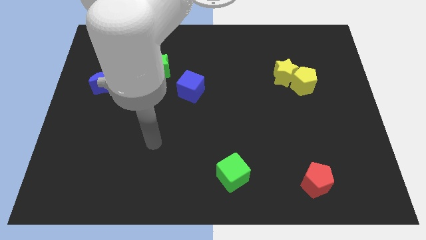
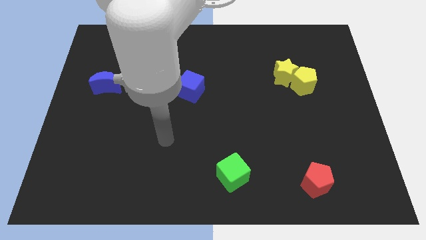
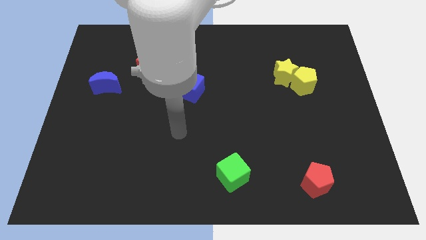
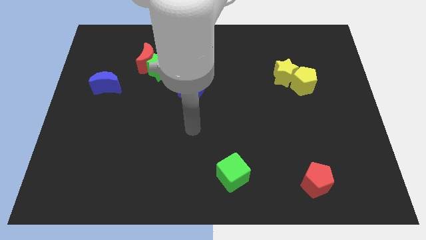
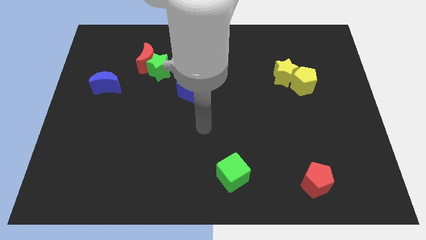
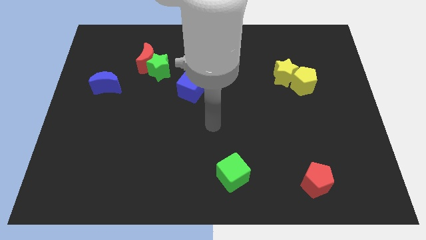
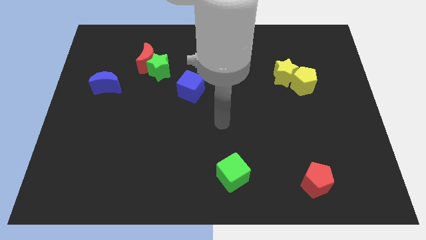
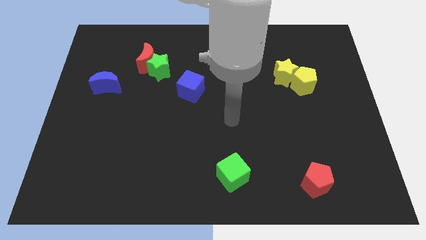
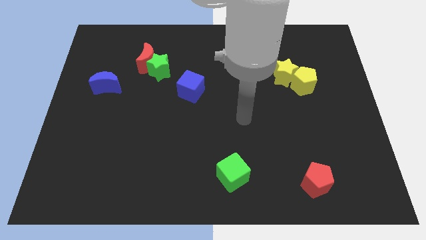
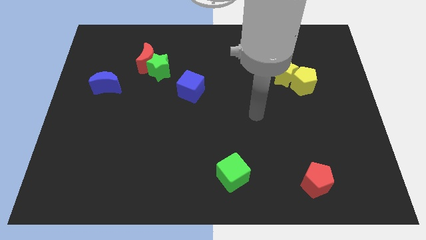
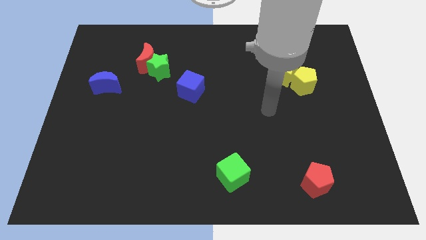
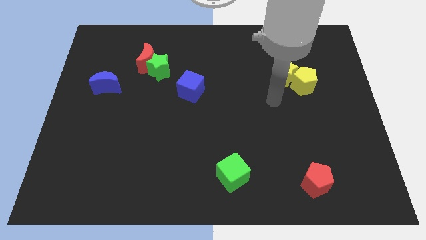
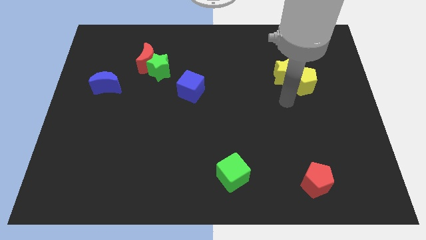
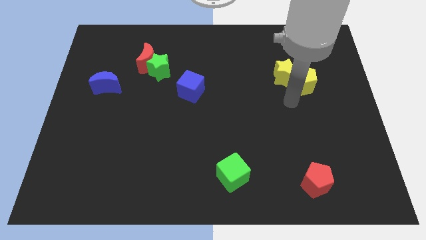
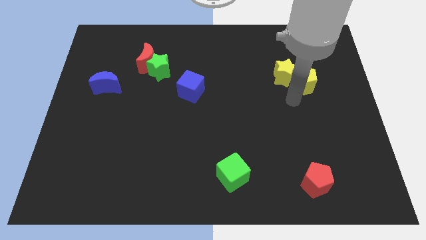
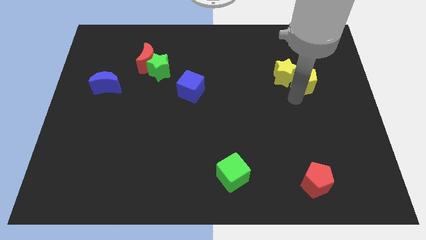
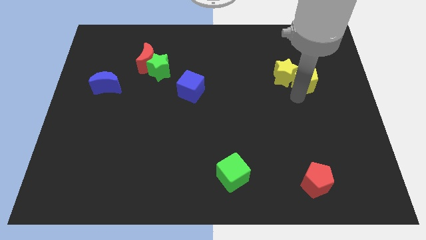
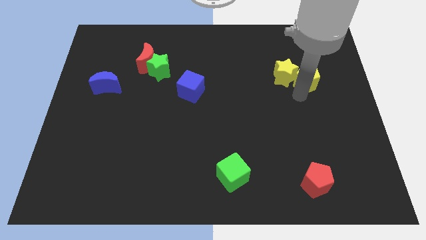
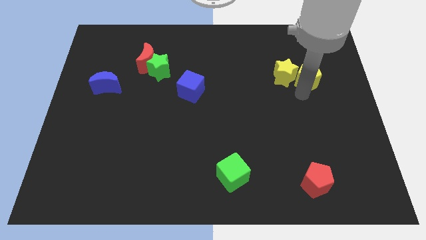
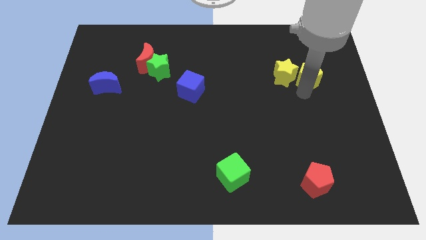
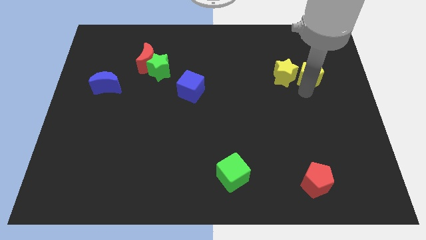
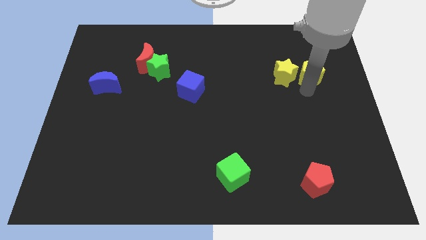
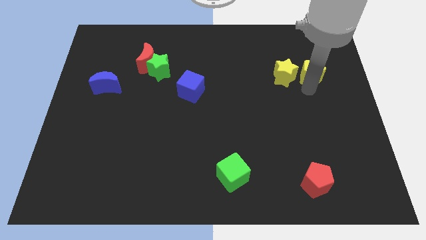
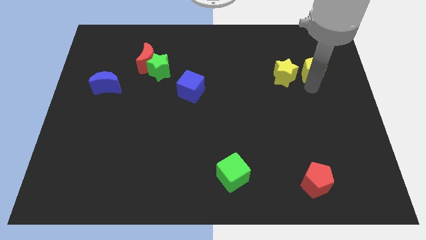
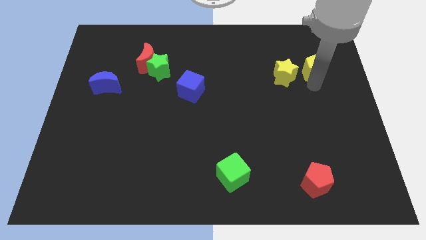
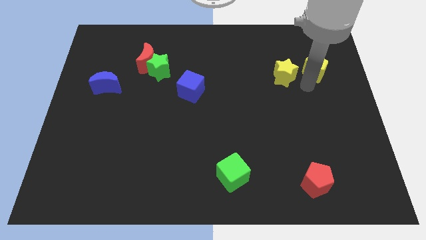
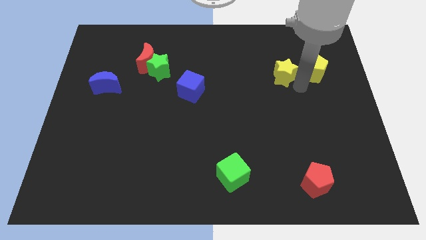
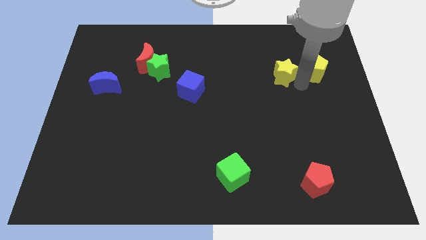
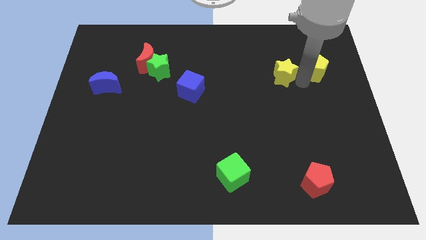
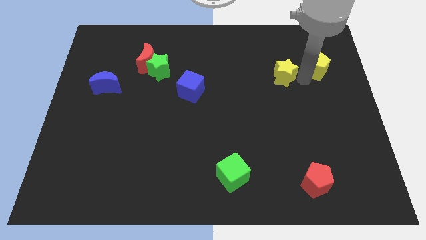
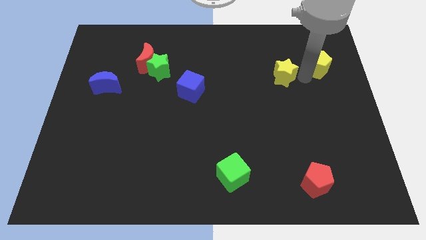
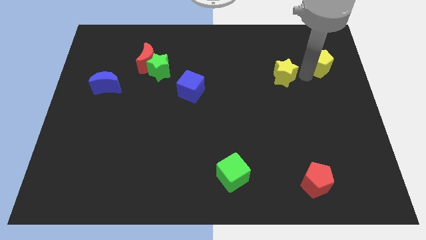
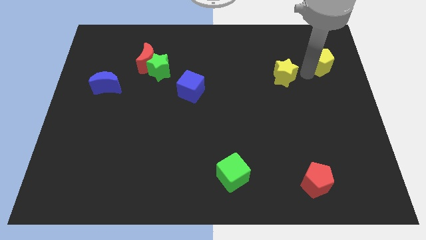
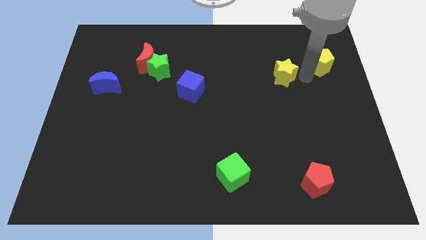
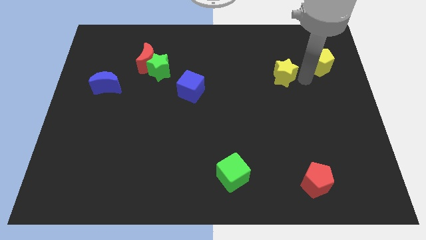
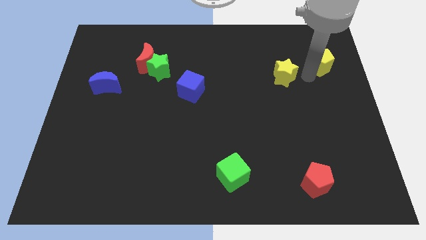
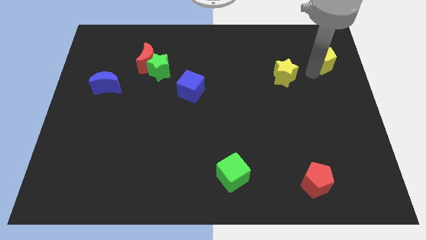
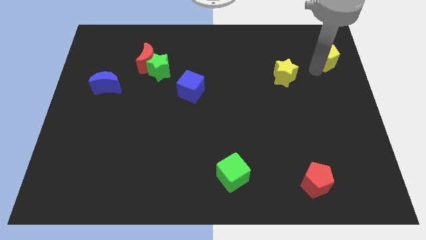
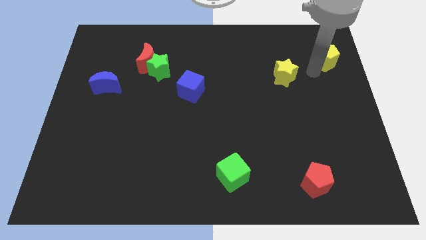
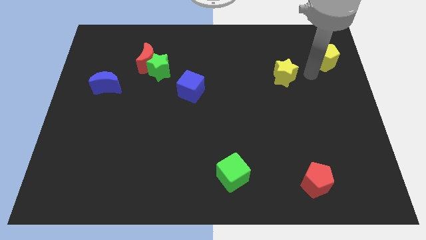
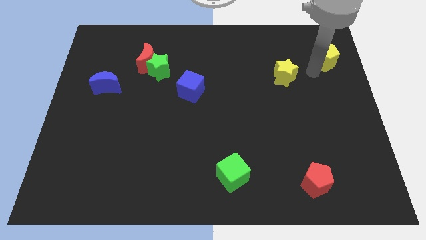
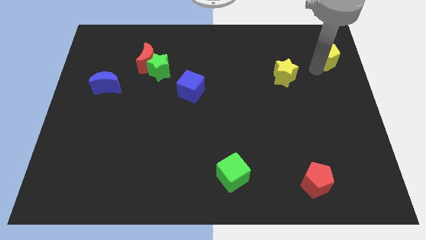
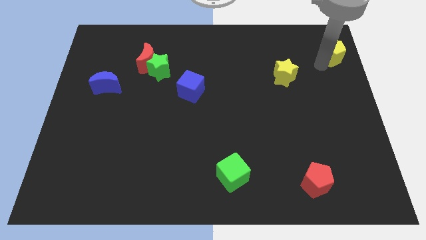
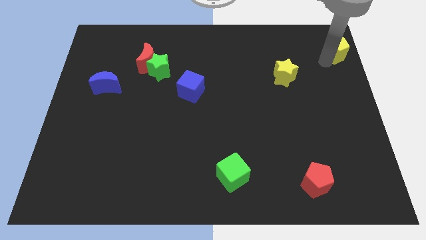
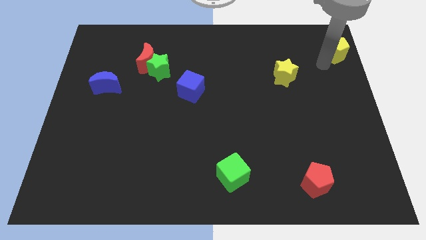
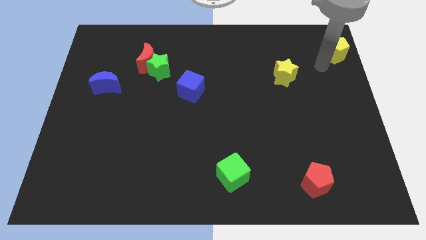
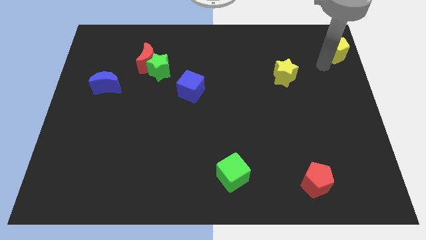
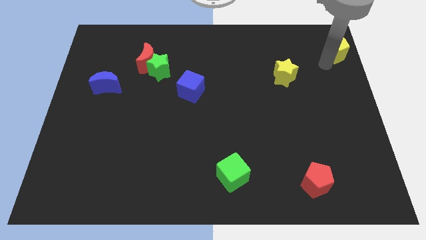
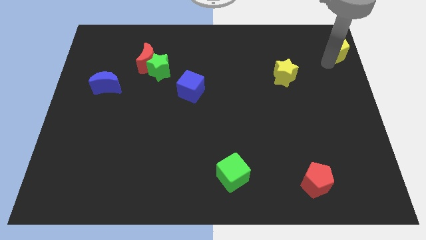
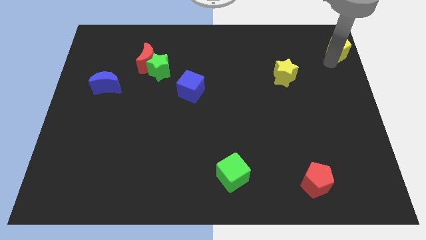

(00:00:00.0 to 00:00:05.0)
move the yellow pentagon to the top right

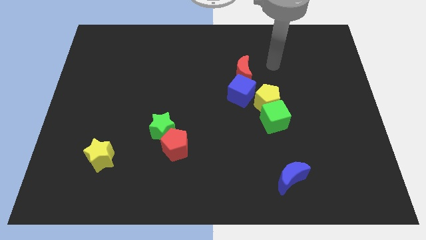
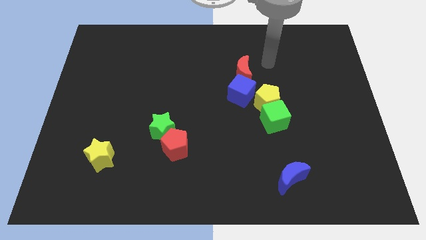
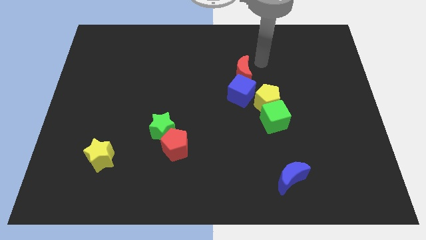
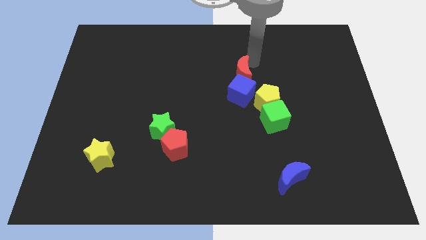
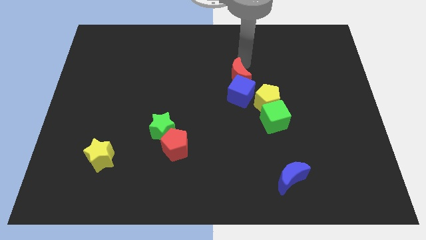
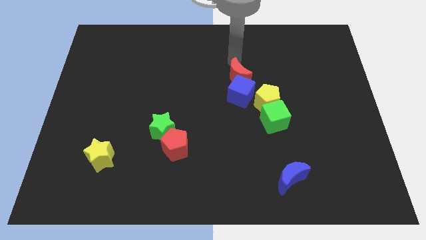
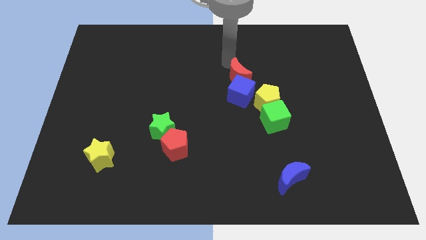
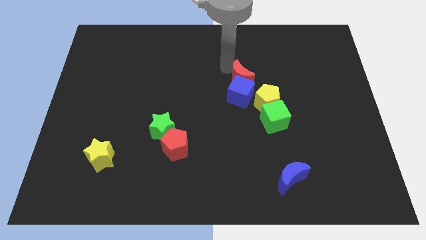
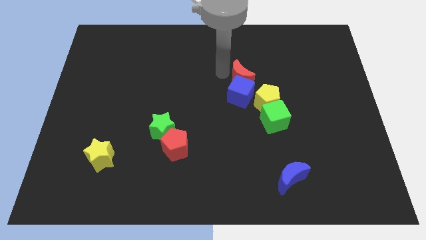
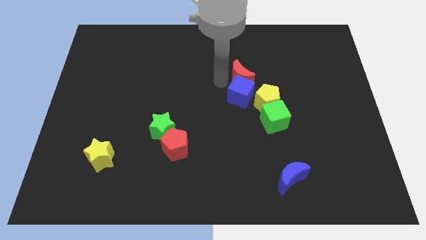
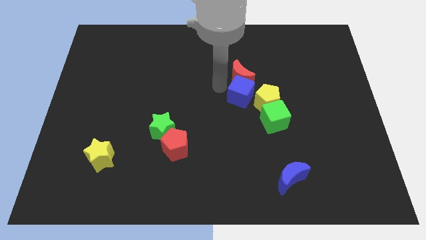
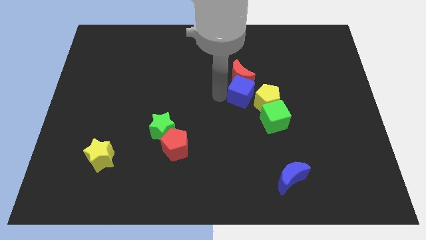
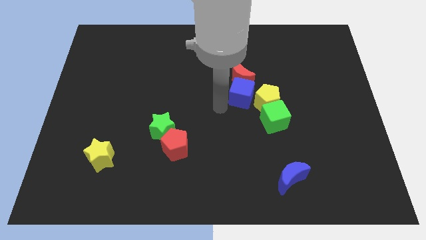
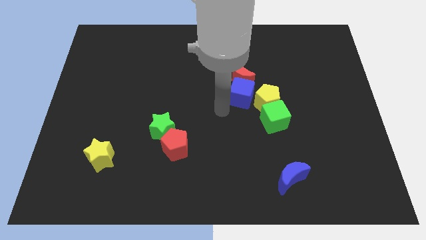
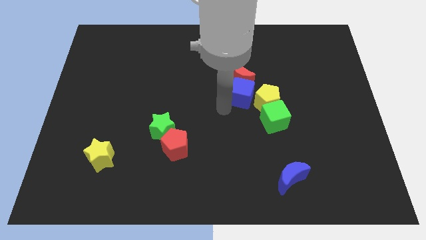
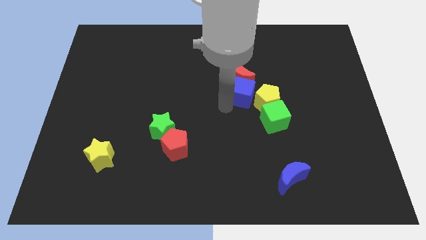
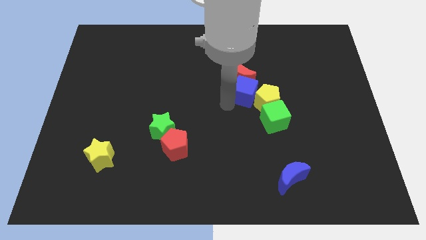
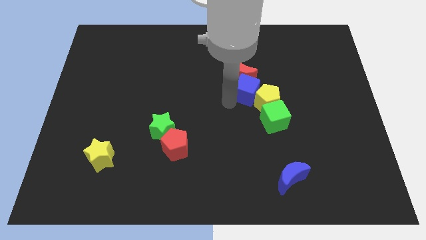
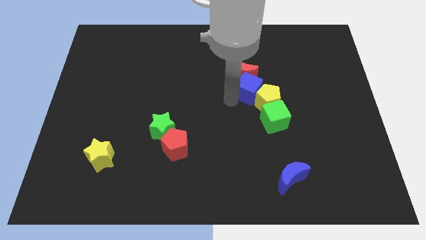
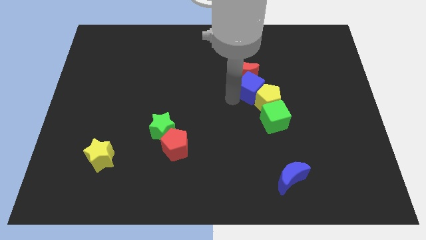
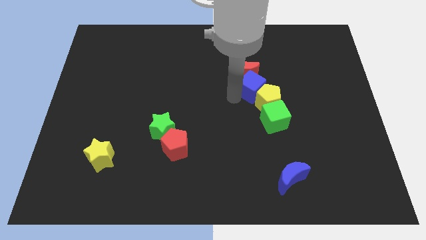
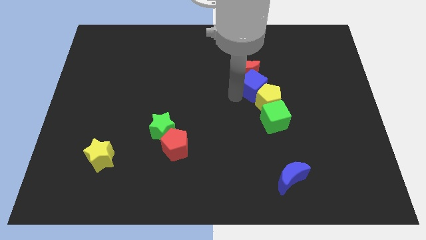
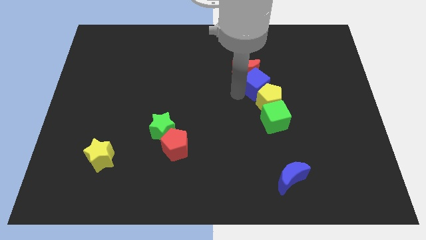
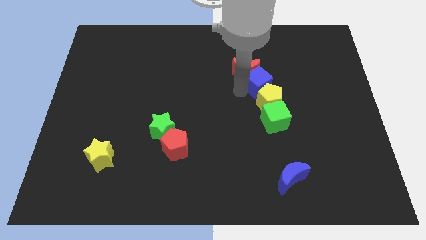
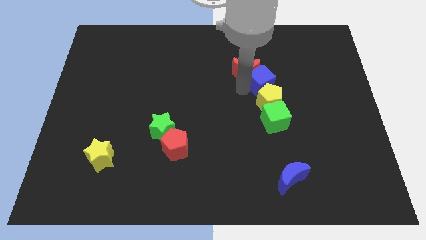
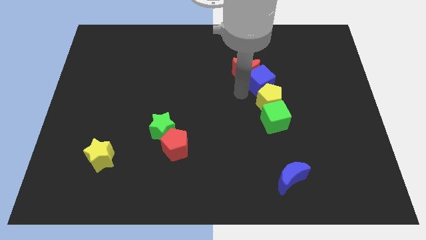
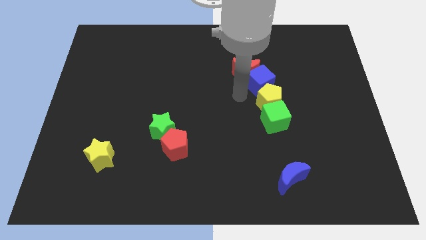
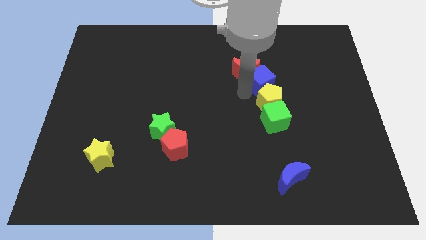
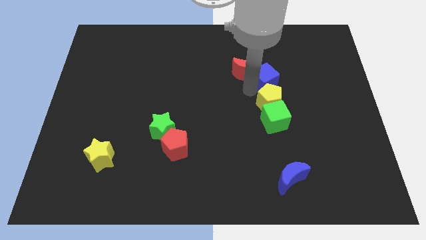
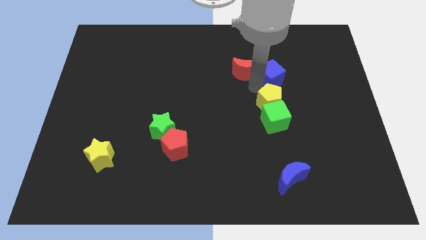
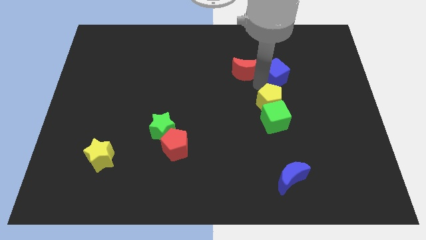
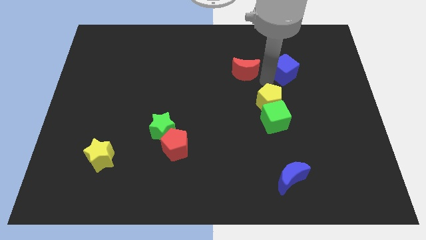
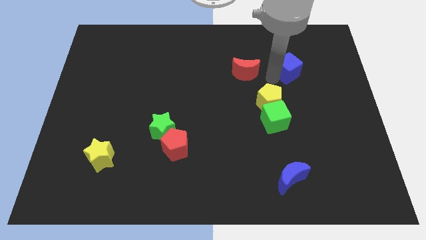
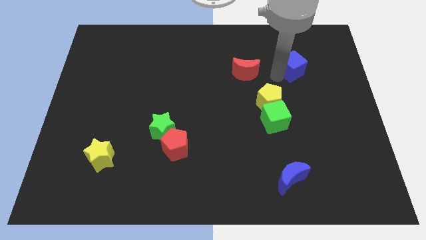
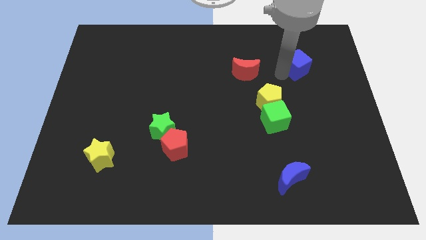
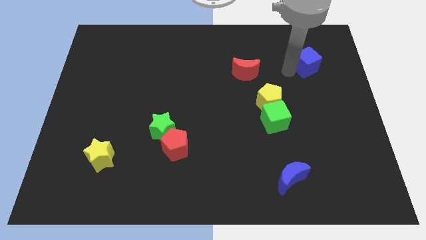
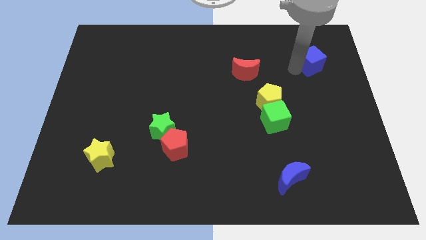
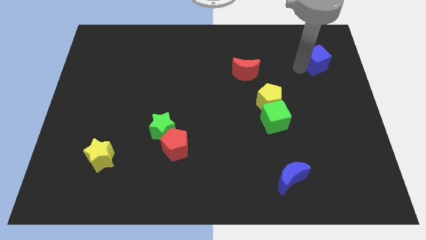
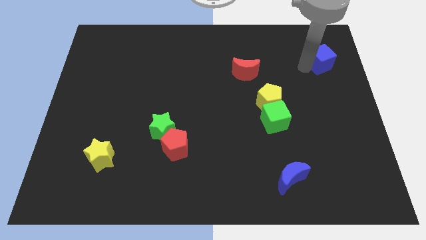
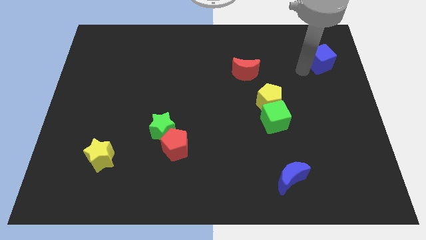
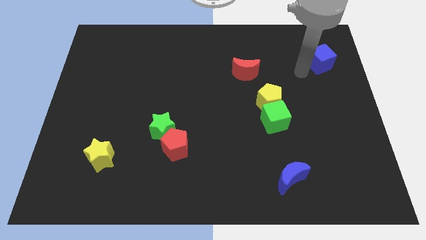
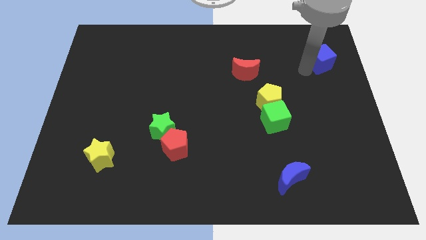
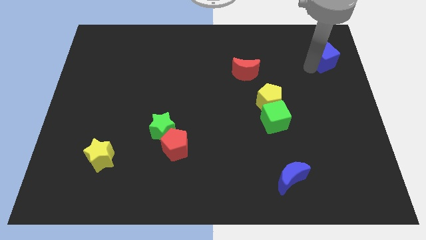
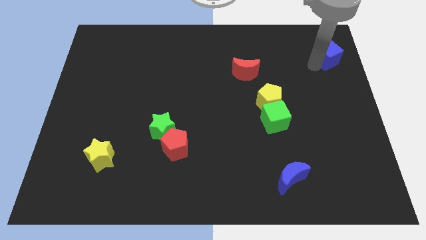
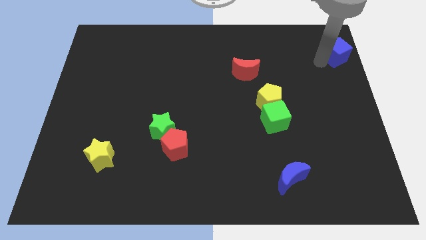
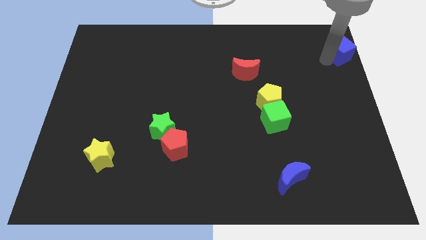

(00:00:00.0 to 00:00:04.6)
put the blue cube to the top right
